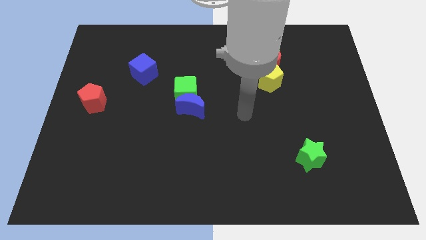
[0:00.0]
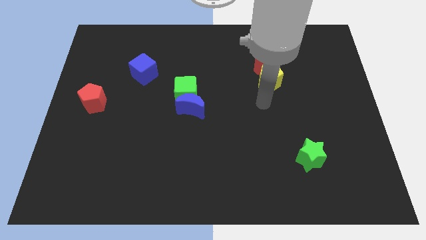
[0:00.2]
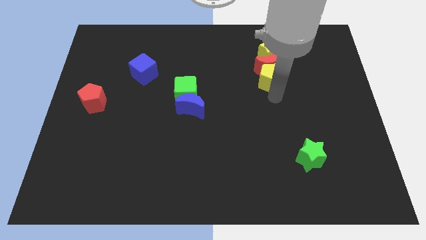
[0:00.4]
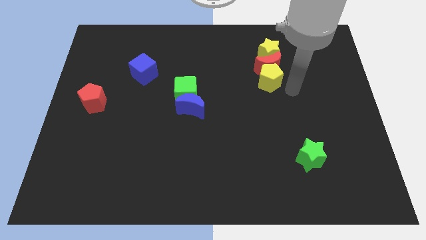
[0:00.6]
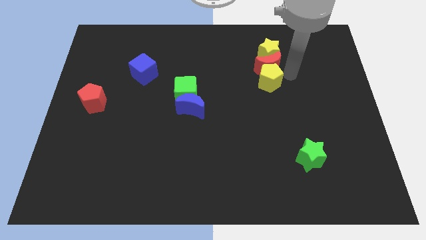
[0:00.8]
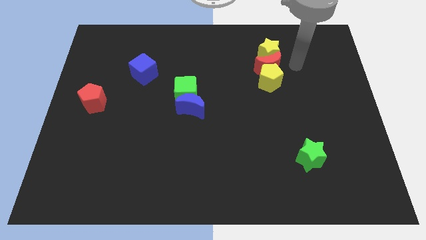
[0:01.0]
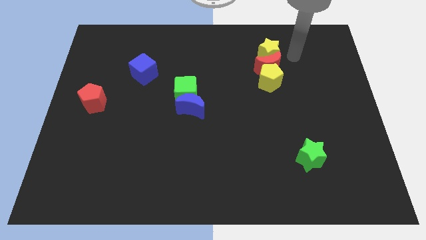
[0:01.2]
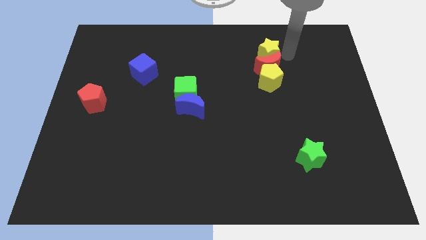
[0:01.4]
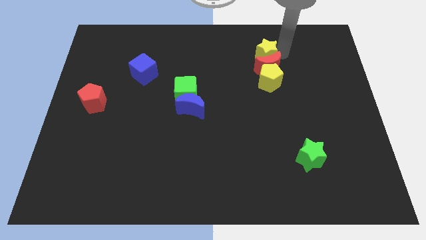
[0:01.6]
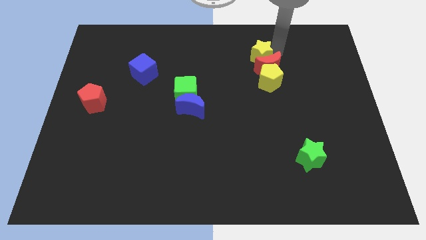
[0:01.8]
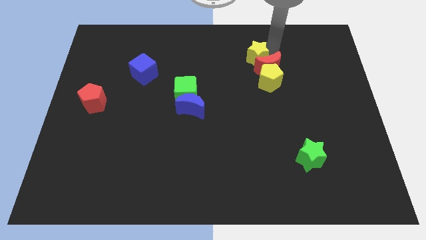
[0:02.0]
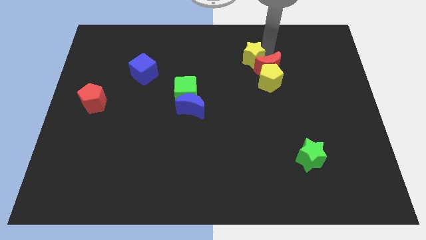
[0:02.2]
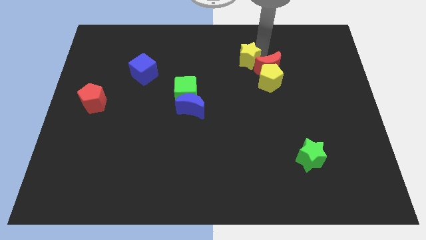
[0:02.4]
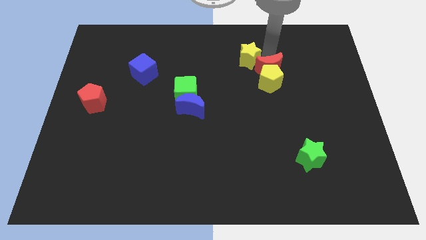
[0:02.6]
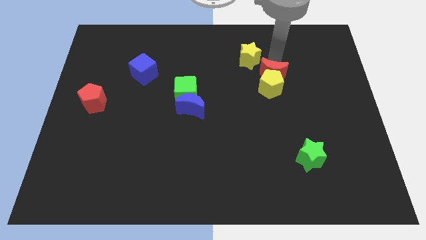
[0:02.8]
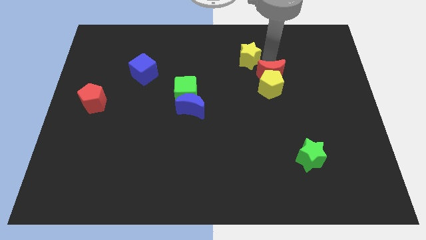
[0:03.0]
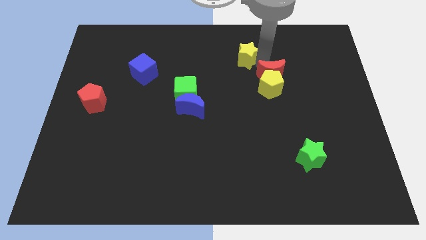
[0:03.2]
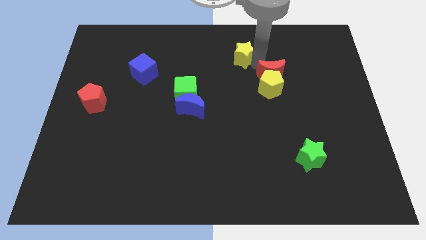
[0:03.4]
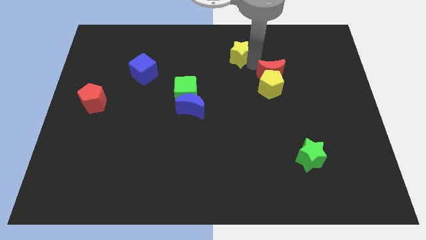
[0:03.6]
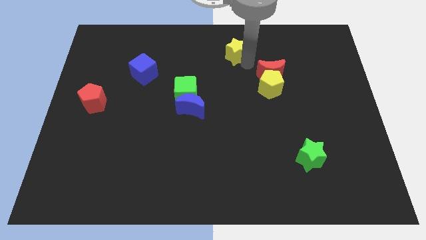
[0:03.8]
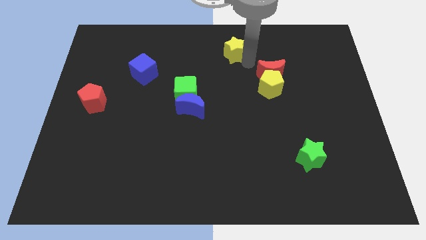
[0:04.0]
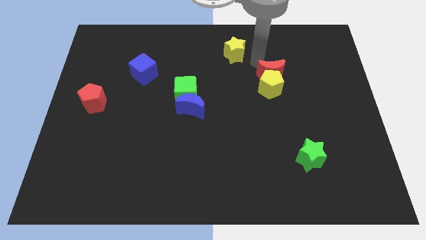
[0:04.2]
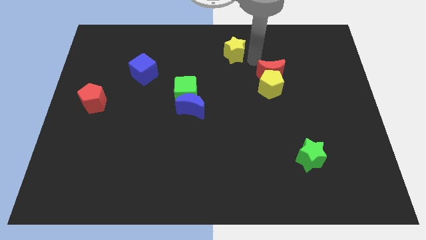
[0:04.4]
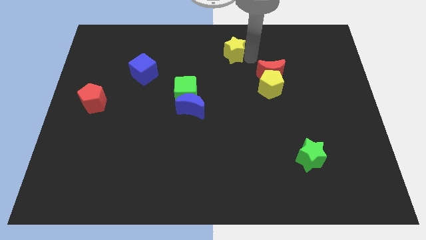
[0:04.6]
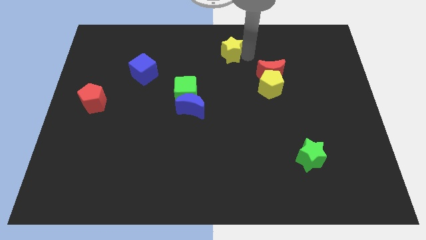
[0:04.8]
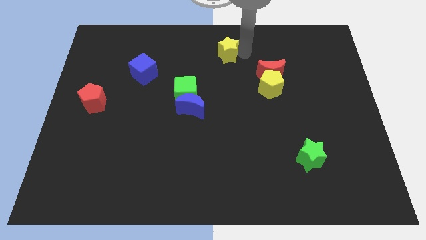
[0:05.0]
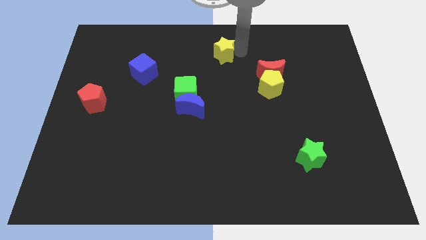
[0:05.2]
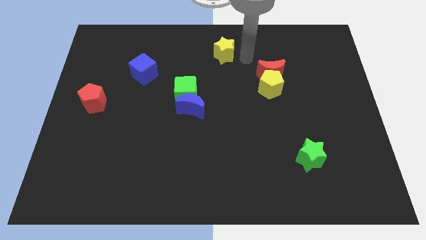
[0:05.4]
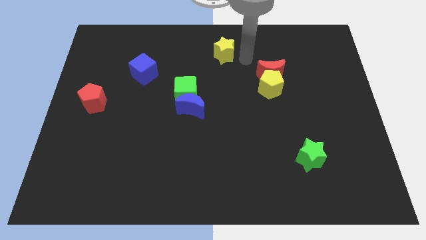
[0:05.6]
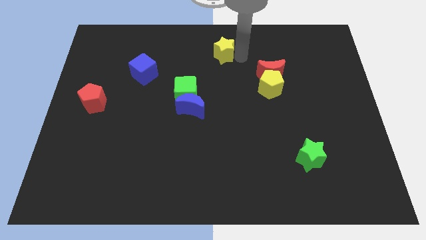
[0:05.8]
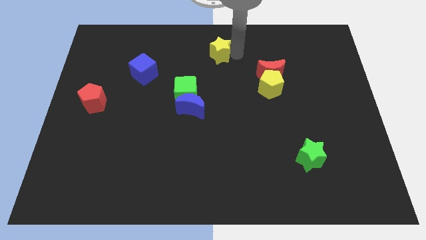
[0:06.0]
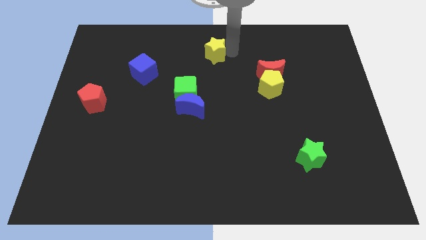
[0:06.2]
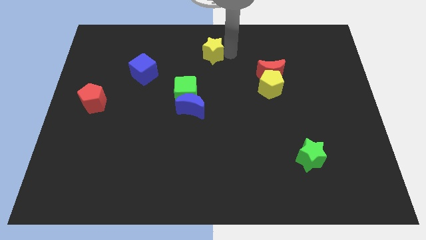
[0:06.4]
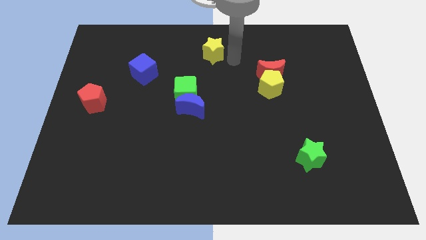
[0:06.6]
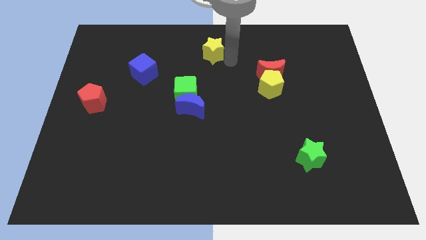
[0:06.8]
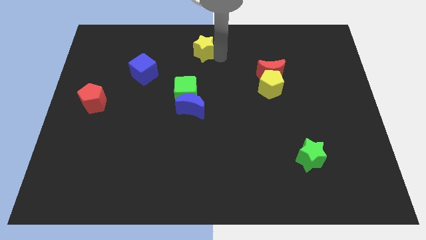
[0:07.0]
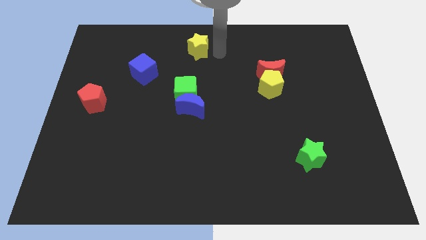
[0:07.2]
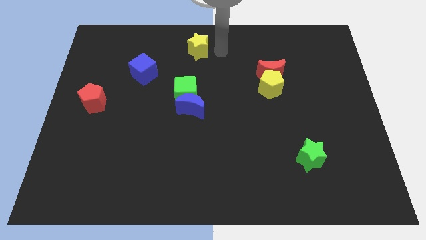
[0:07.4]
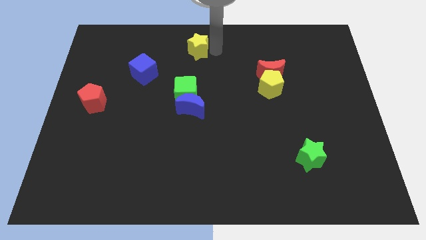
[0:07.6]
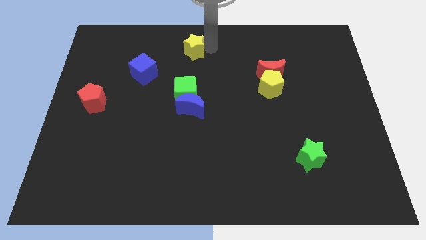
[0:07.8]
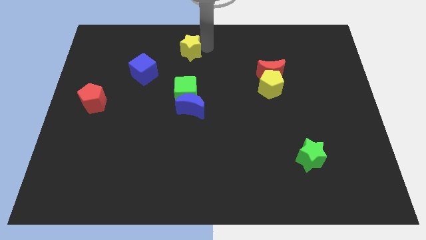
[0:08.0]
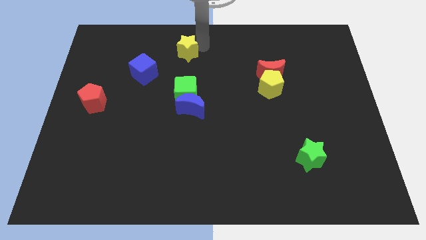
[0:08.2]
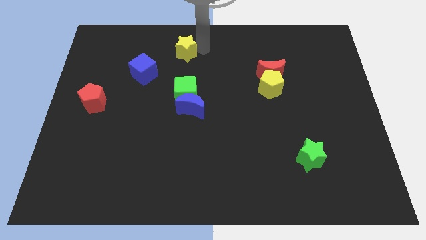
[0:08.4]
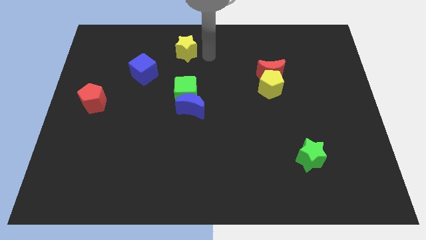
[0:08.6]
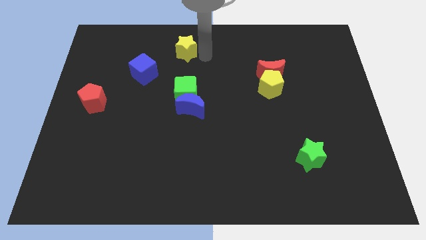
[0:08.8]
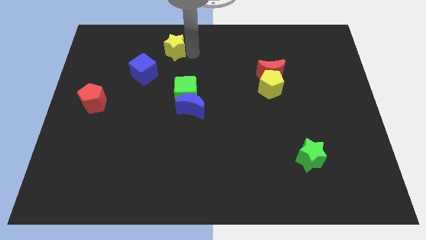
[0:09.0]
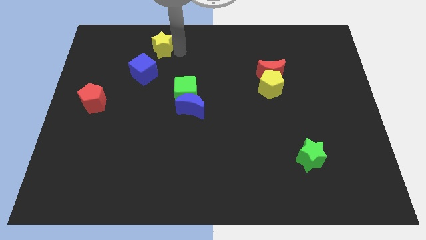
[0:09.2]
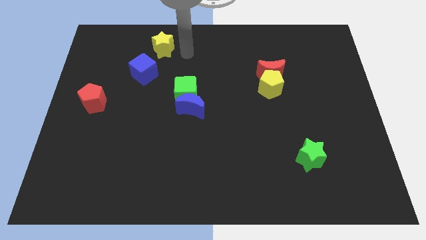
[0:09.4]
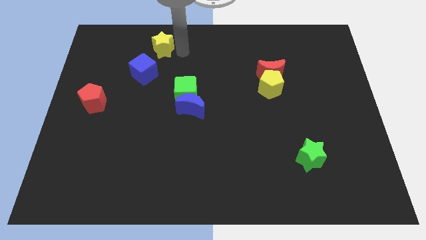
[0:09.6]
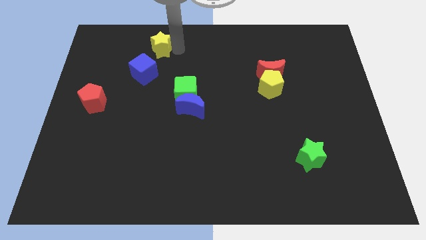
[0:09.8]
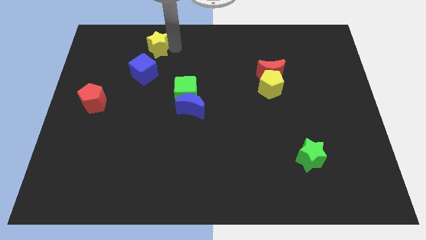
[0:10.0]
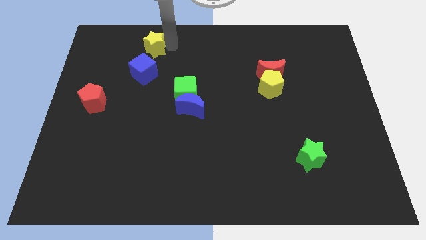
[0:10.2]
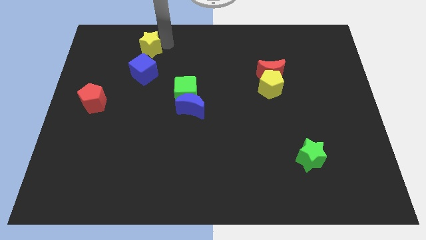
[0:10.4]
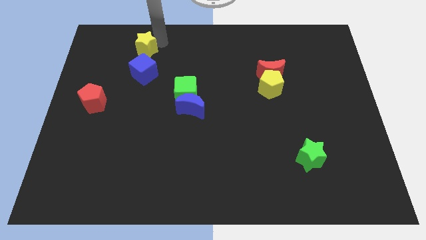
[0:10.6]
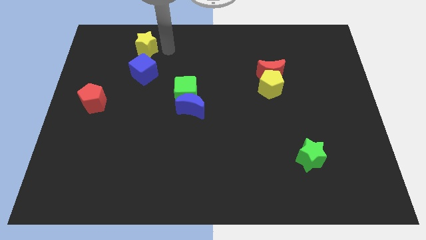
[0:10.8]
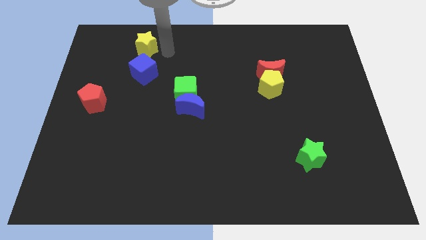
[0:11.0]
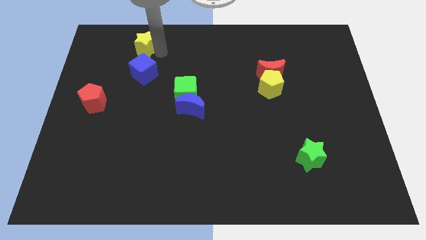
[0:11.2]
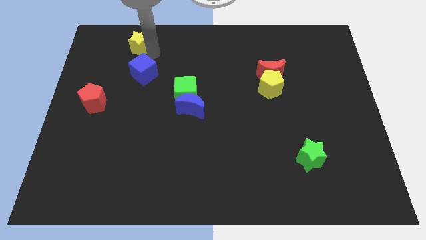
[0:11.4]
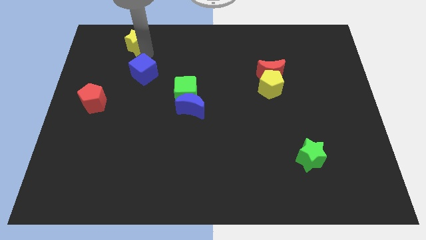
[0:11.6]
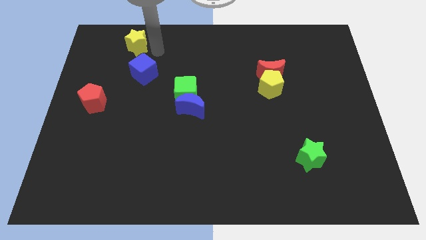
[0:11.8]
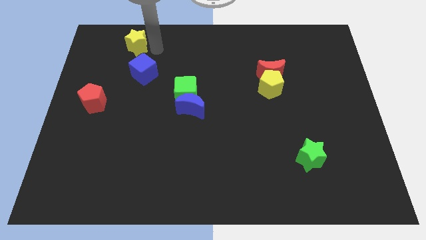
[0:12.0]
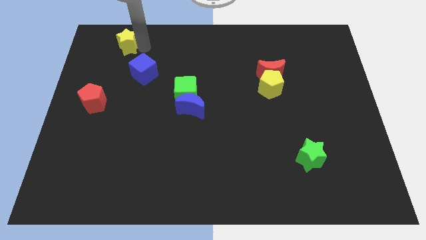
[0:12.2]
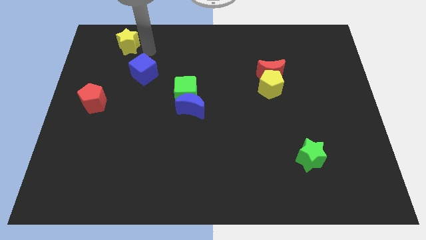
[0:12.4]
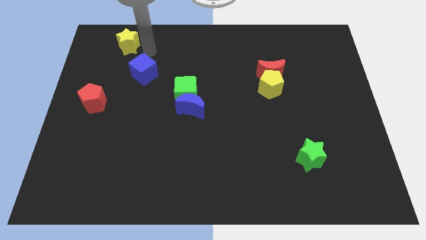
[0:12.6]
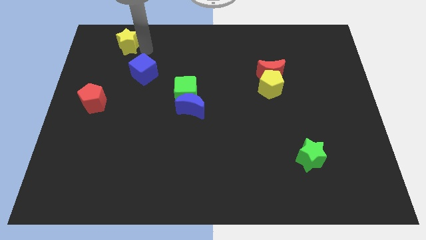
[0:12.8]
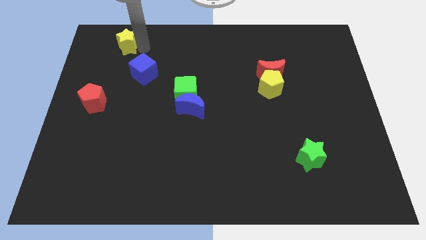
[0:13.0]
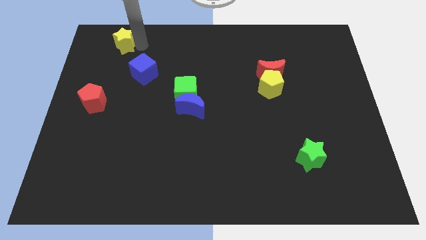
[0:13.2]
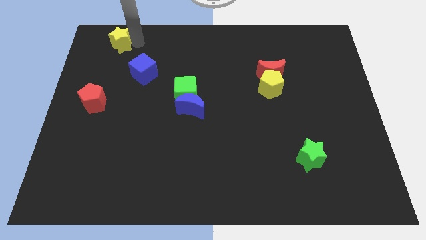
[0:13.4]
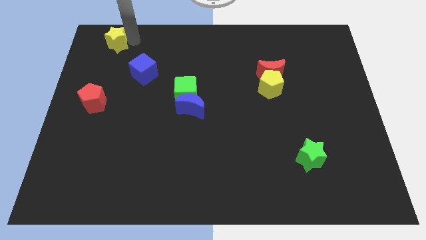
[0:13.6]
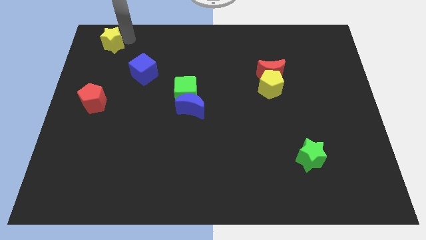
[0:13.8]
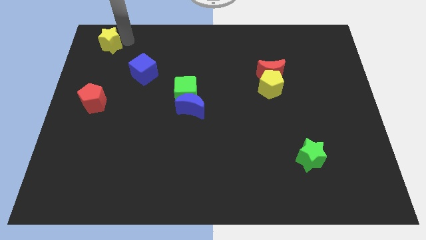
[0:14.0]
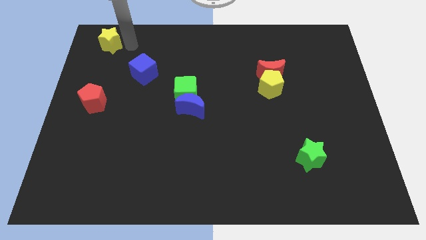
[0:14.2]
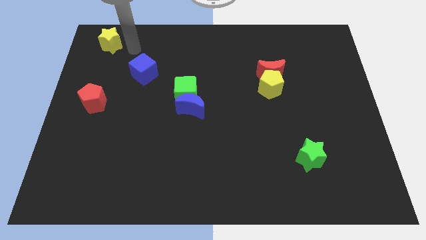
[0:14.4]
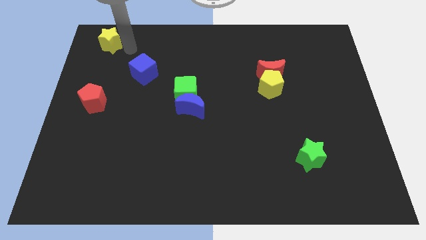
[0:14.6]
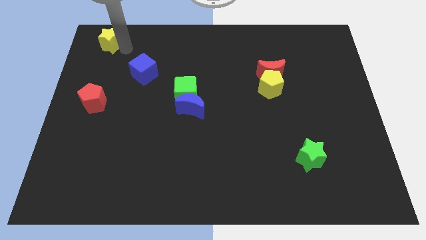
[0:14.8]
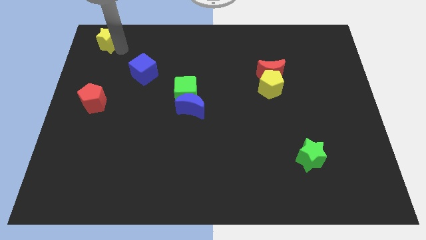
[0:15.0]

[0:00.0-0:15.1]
slide the yellow star to the top left
